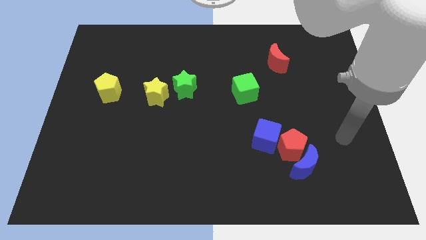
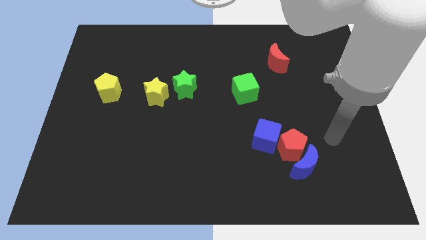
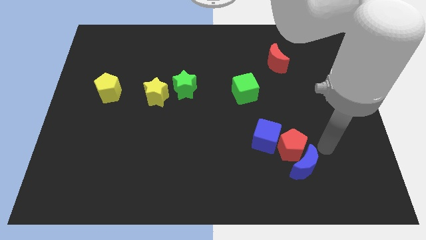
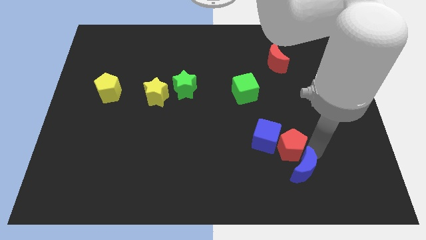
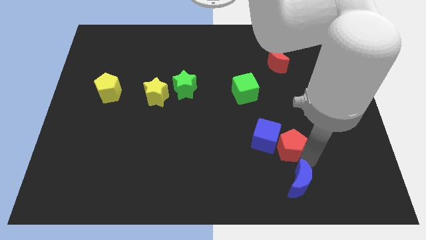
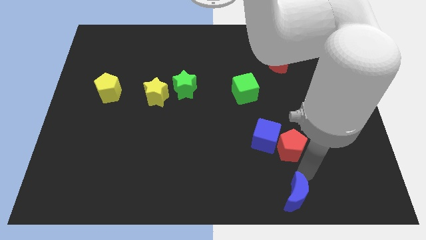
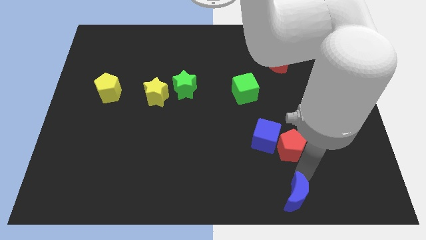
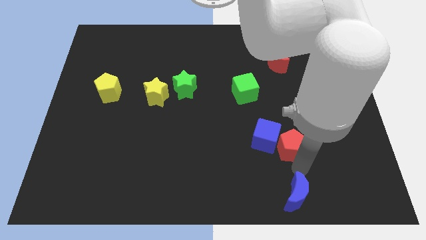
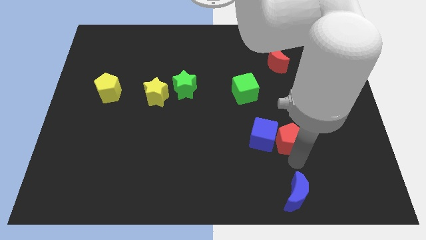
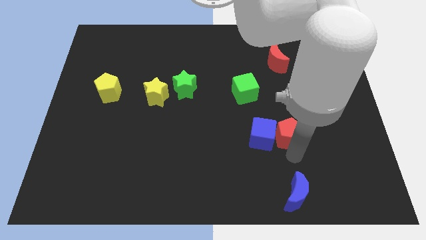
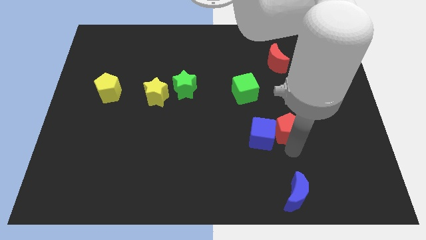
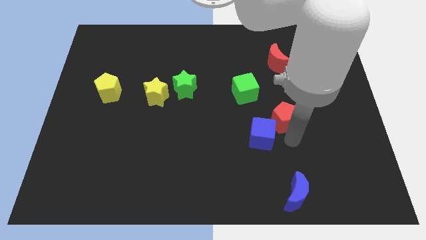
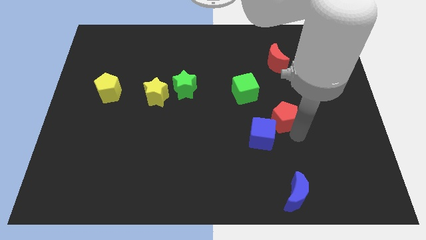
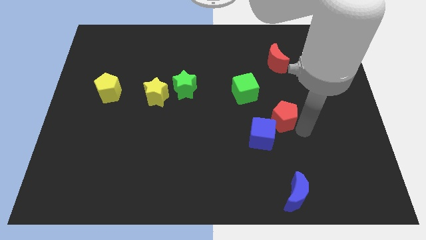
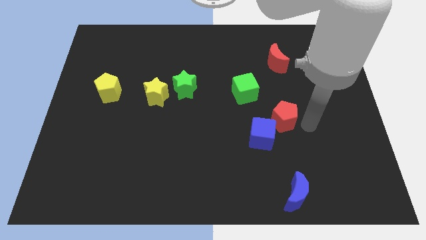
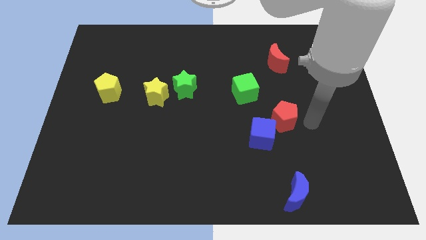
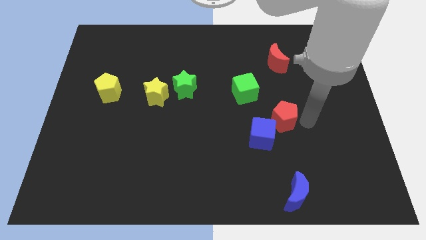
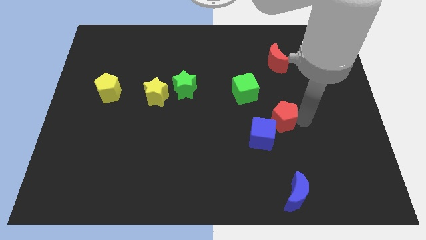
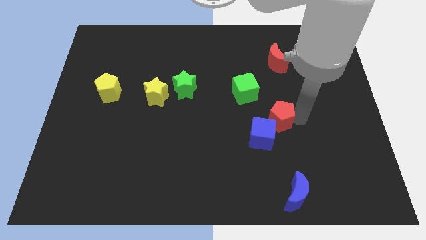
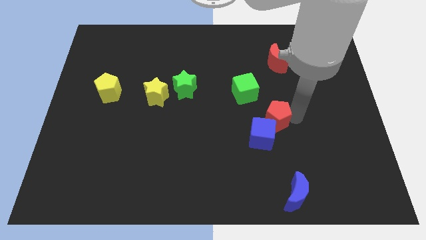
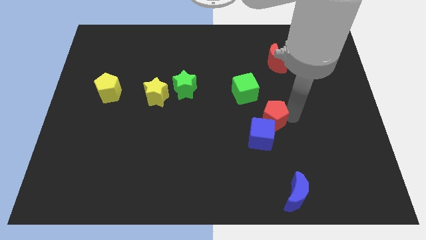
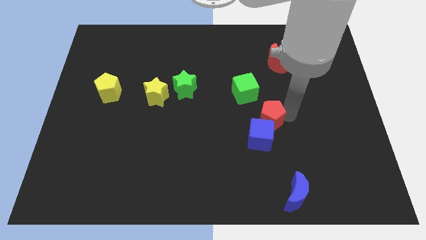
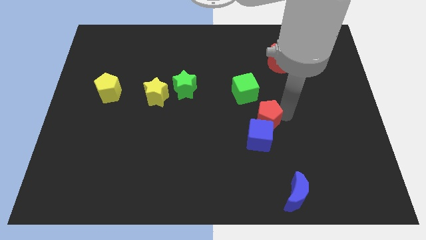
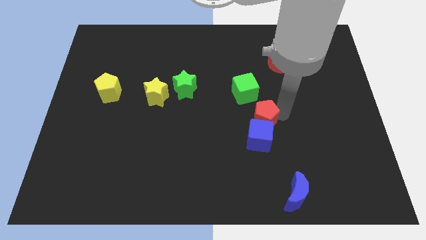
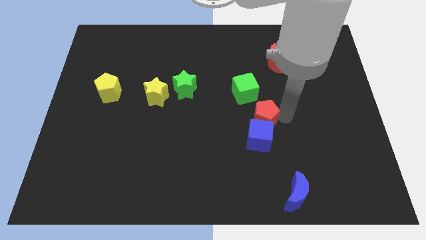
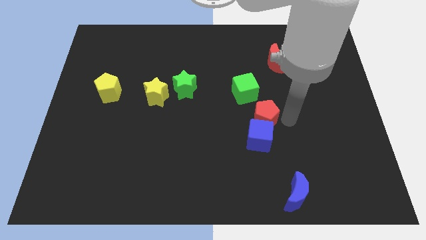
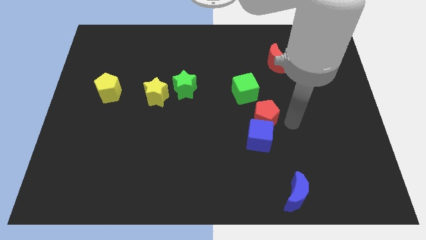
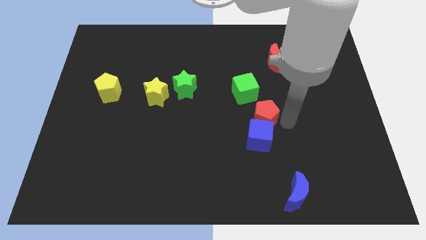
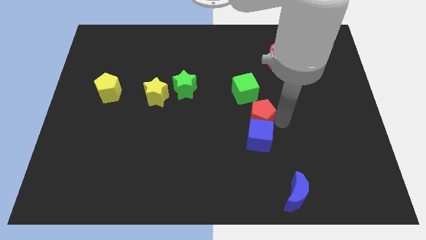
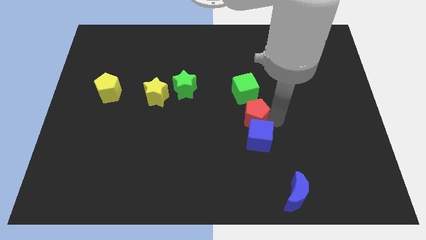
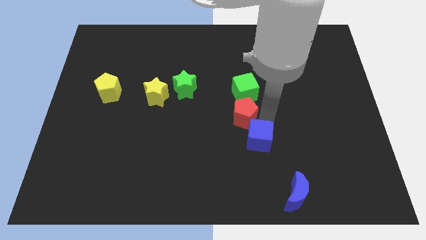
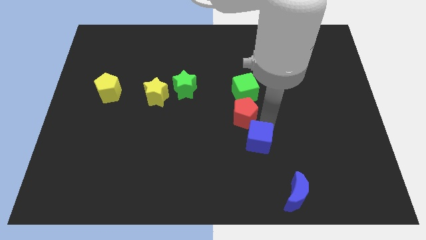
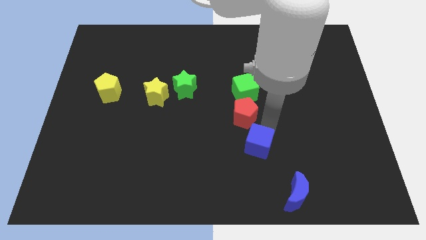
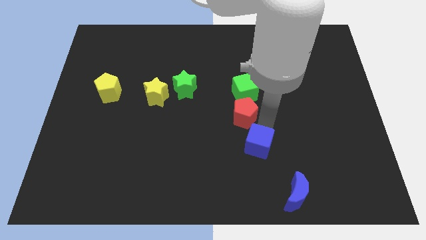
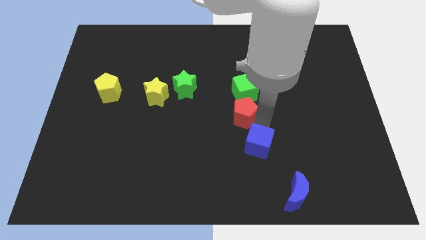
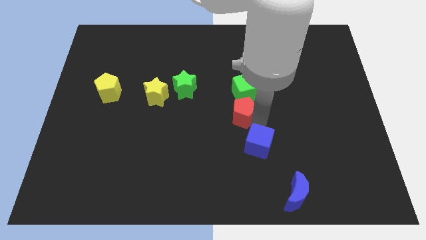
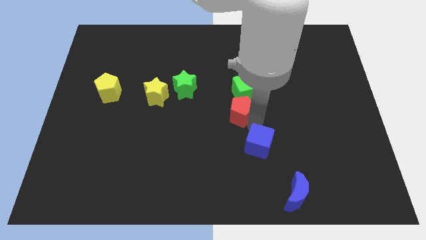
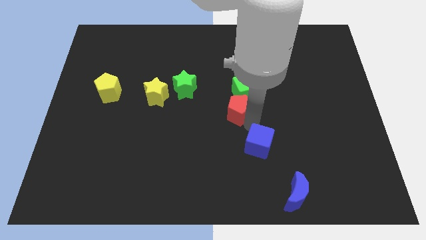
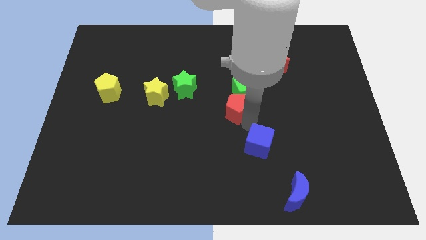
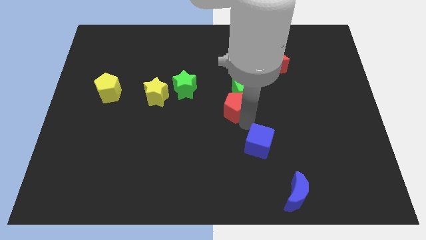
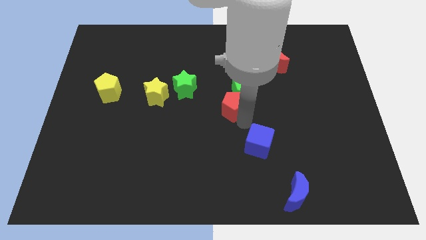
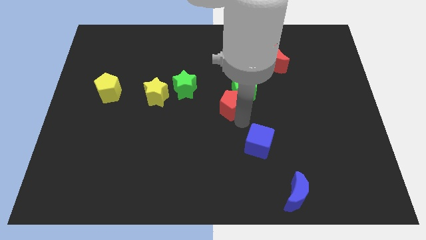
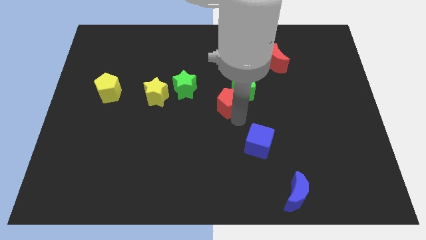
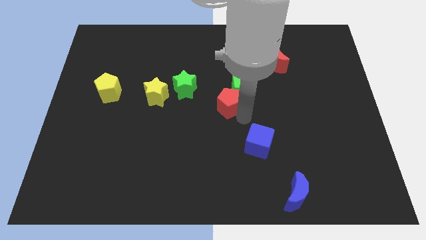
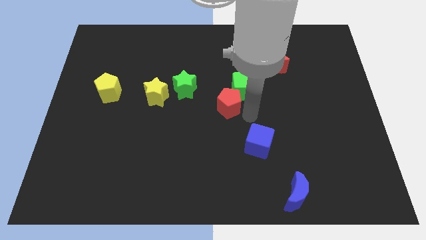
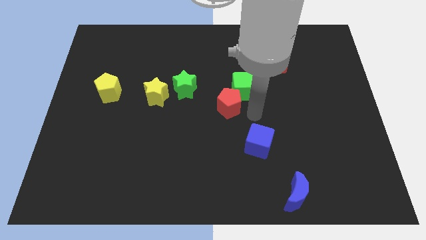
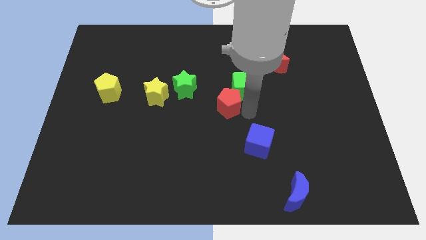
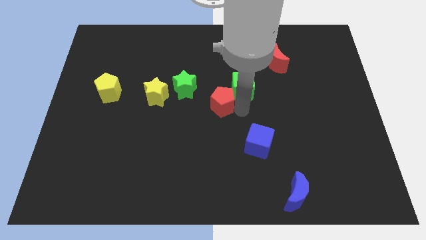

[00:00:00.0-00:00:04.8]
push the red pentagon just right of the yellow star

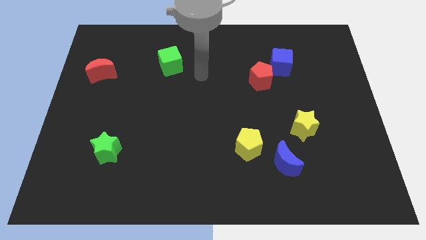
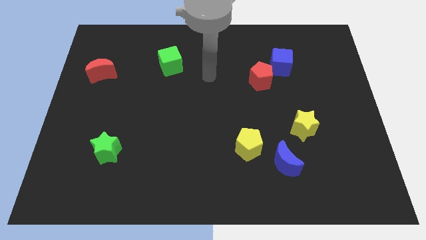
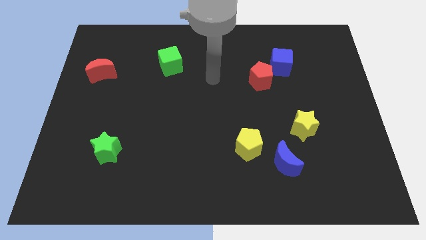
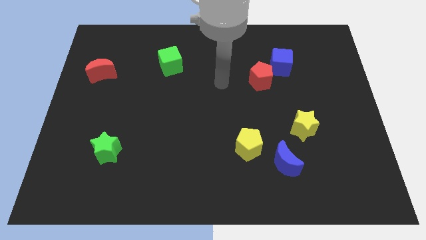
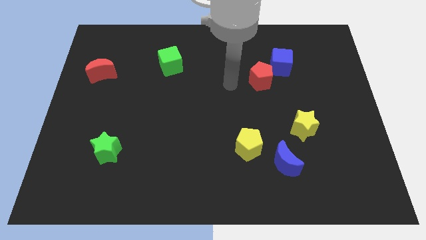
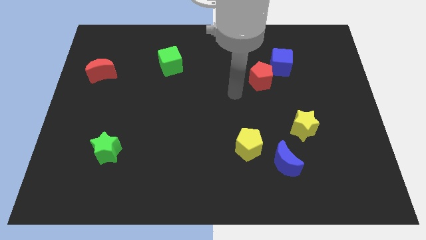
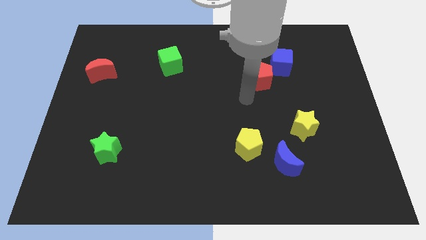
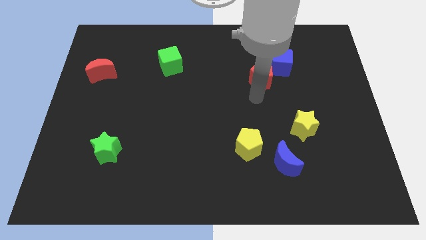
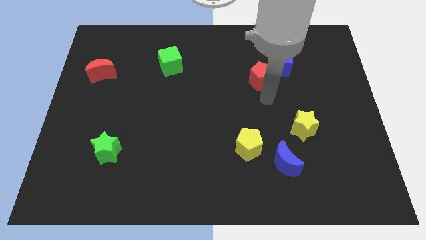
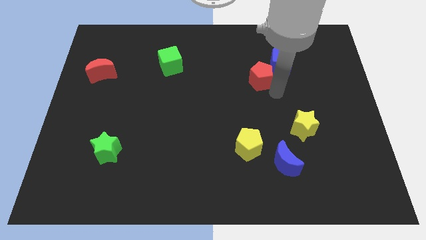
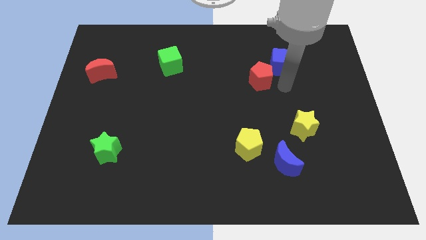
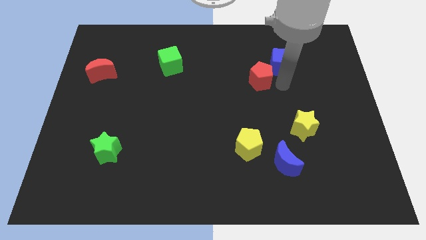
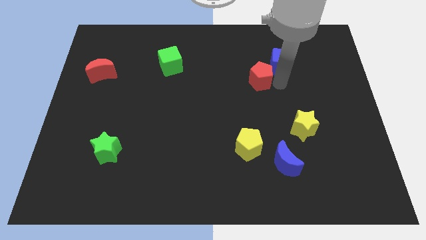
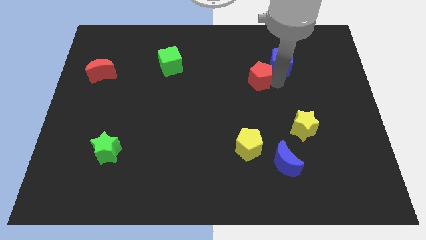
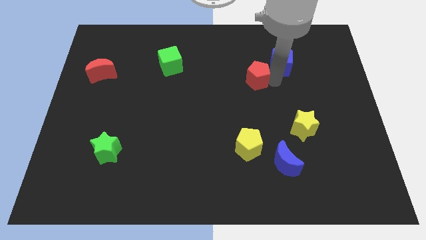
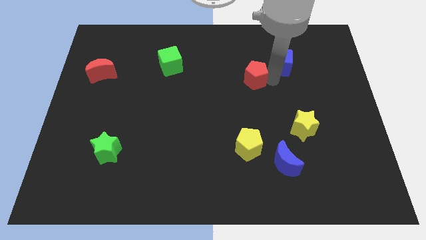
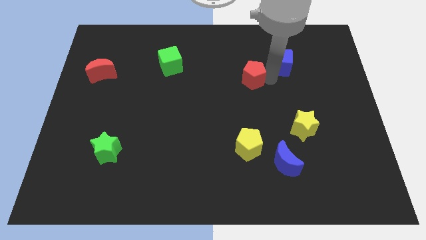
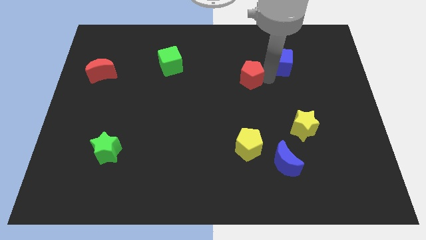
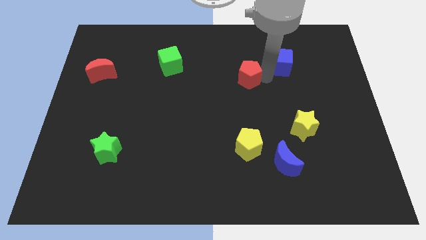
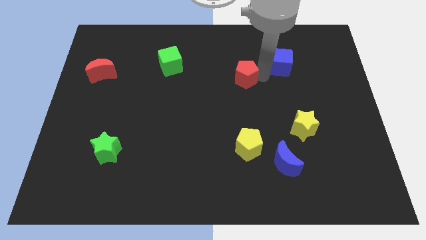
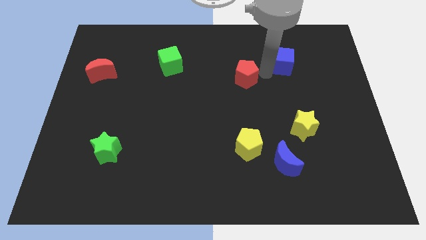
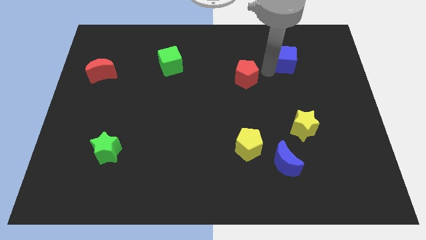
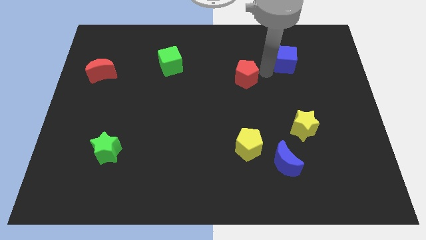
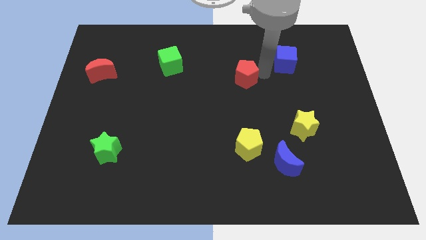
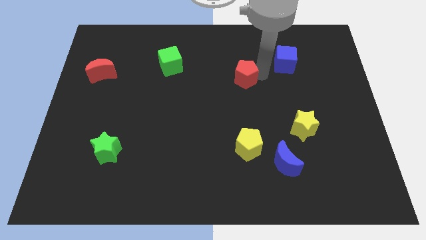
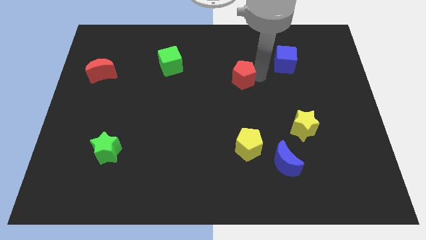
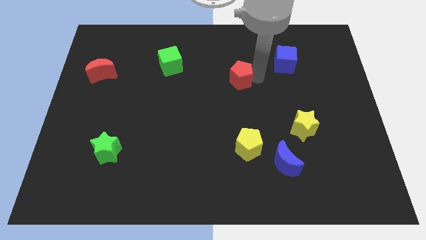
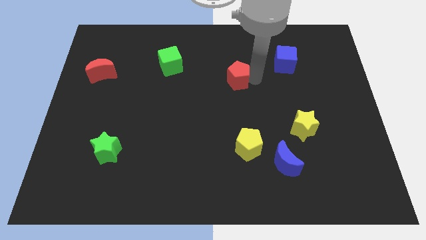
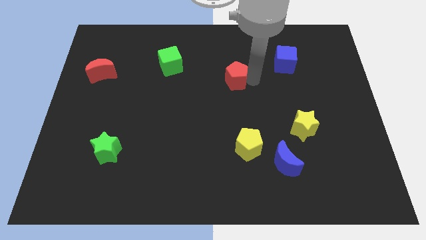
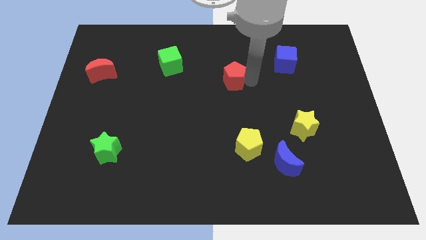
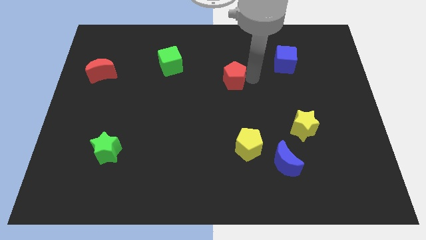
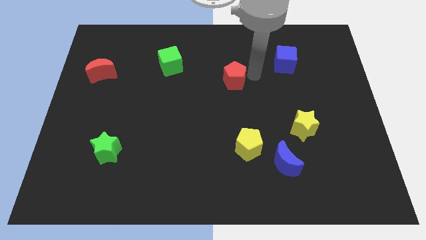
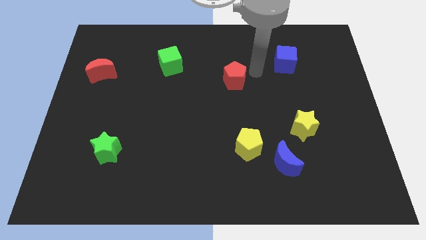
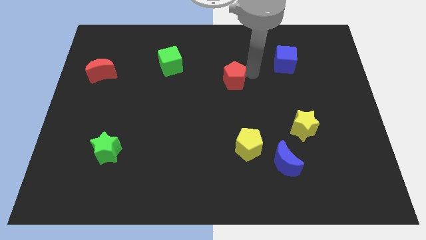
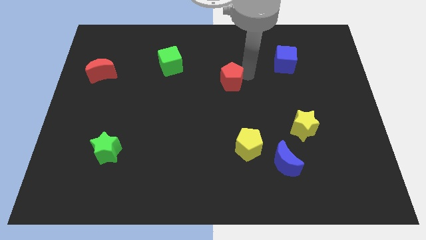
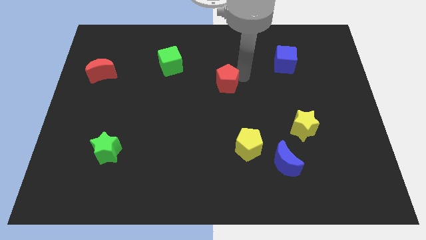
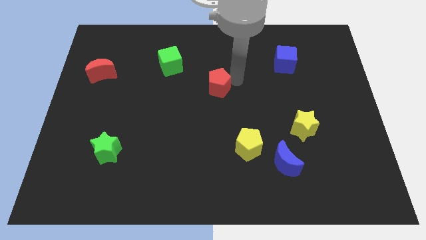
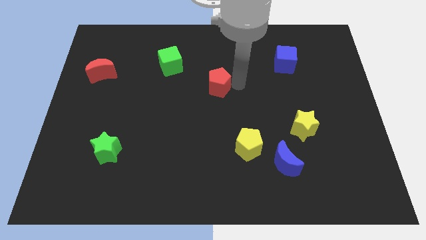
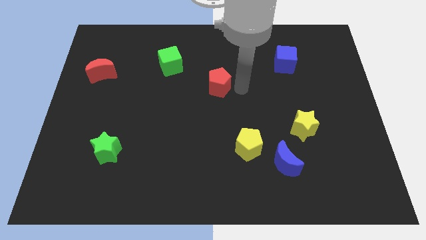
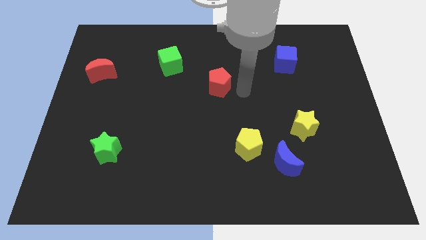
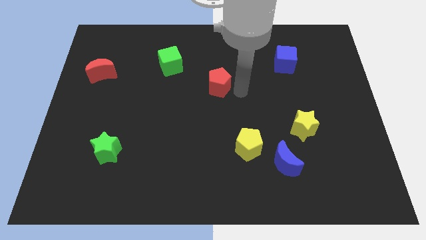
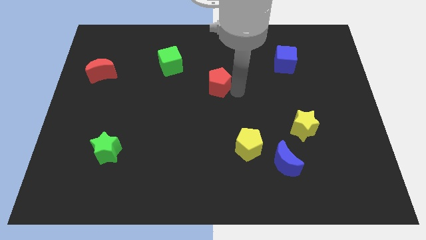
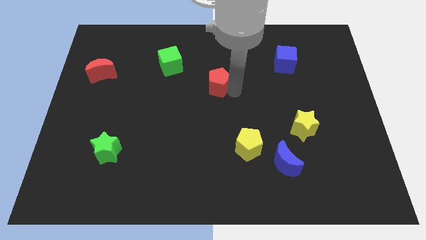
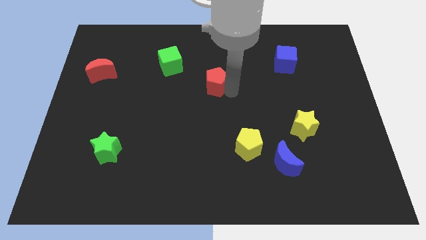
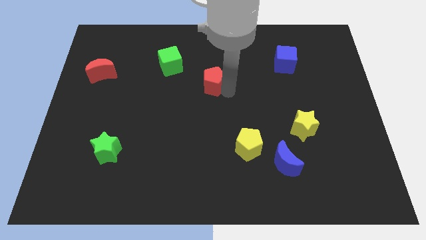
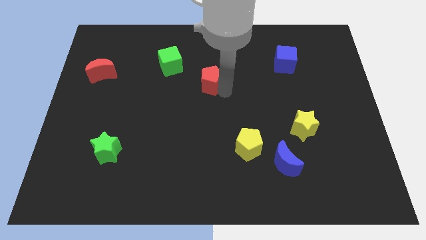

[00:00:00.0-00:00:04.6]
push the red pentagon to the bottom right of the green cube
